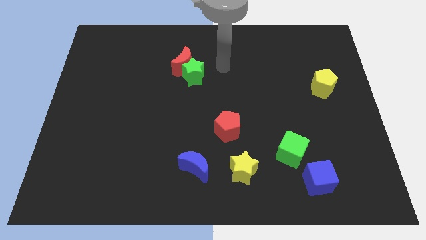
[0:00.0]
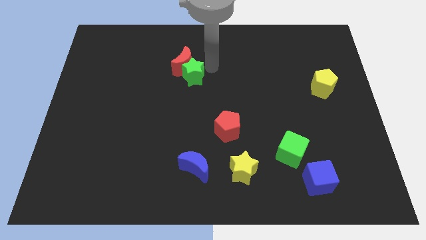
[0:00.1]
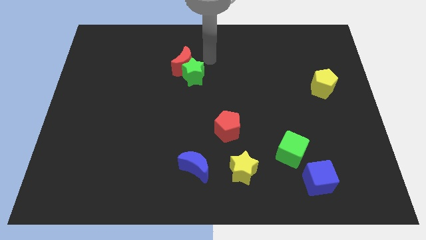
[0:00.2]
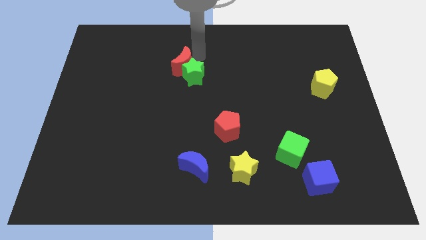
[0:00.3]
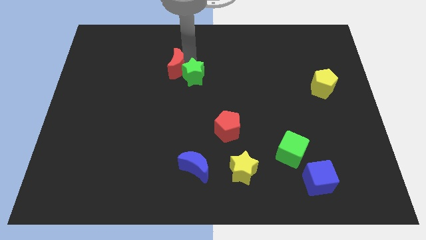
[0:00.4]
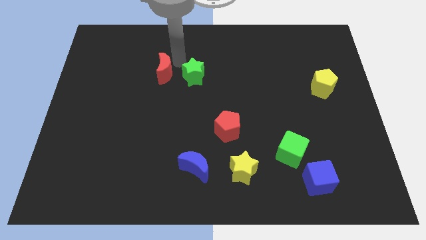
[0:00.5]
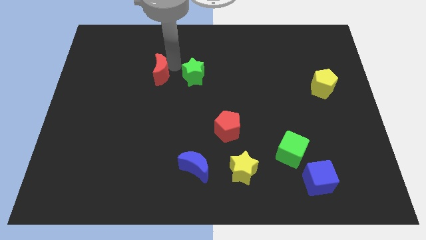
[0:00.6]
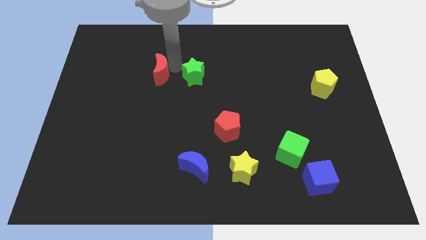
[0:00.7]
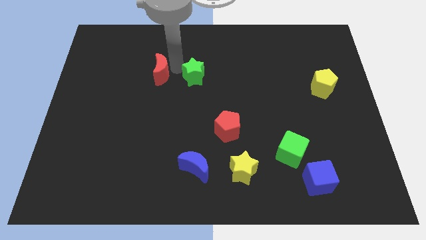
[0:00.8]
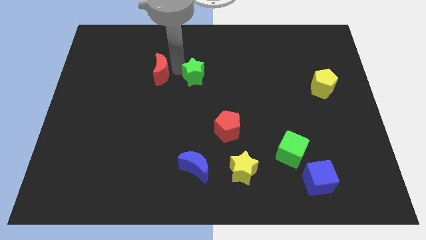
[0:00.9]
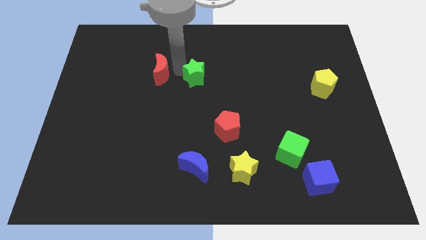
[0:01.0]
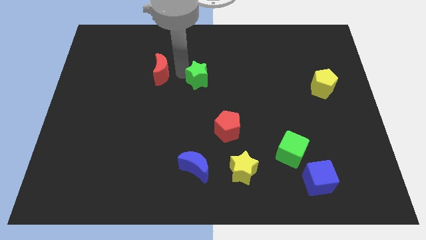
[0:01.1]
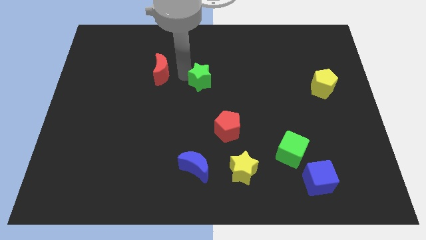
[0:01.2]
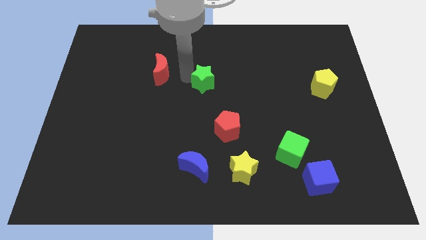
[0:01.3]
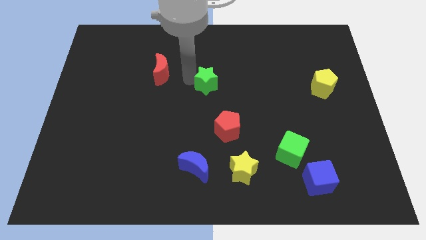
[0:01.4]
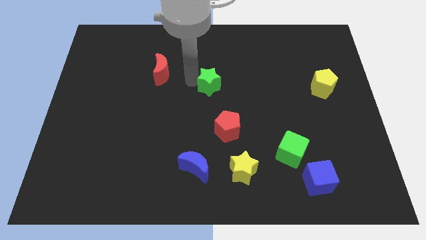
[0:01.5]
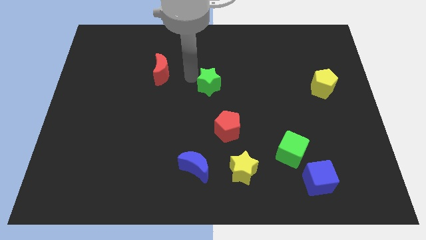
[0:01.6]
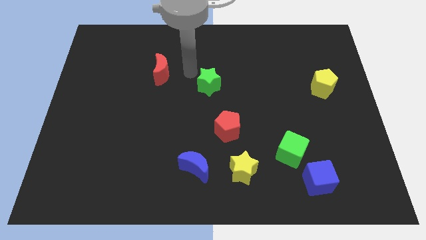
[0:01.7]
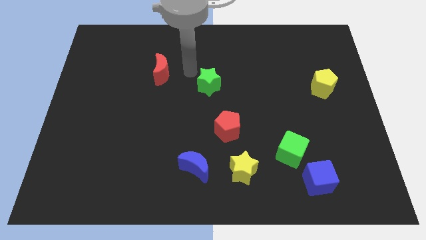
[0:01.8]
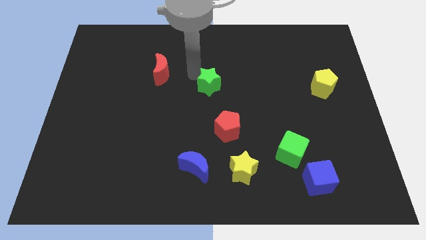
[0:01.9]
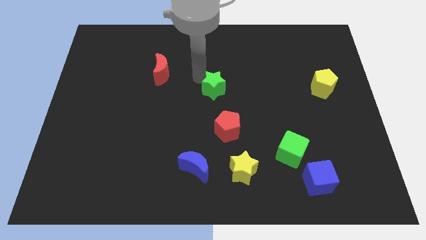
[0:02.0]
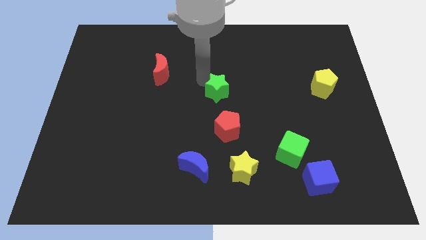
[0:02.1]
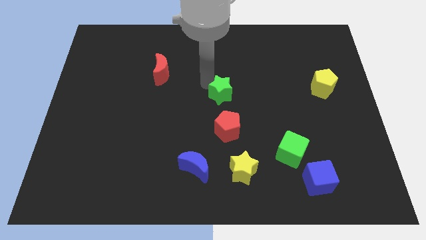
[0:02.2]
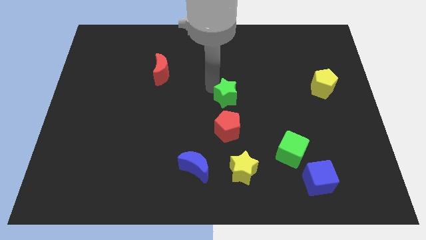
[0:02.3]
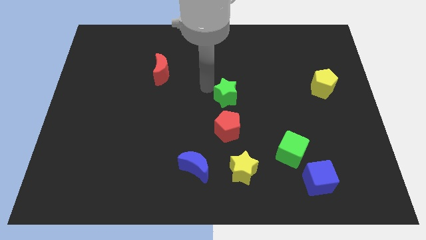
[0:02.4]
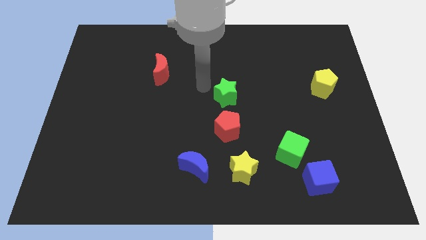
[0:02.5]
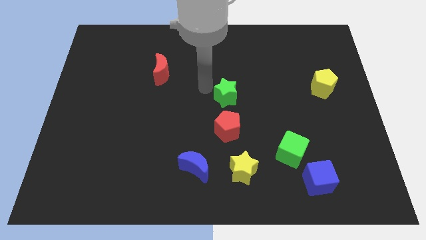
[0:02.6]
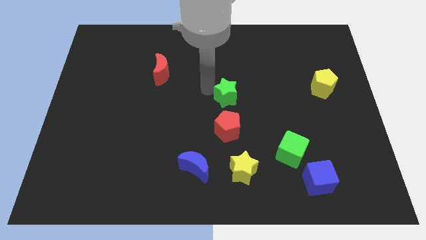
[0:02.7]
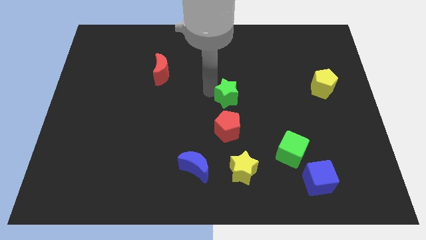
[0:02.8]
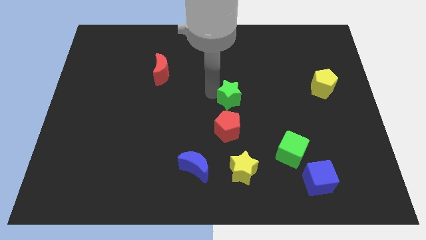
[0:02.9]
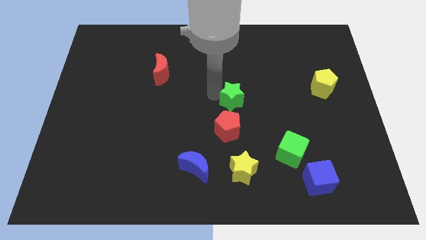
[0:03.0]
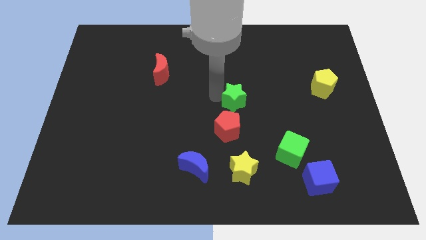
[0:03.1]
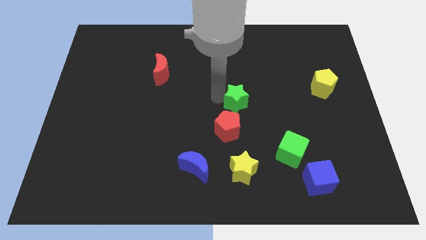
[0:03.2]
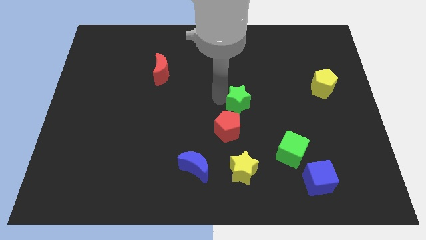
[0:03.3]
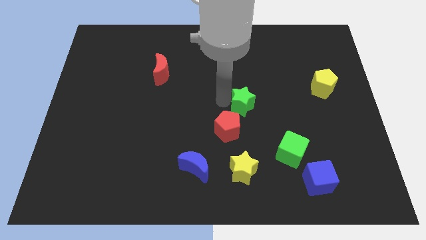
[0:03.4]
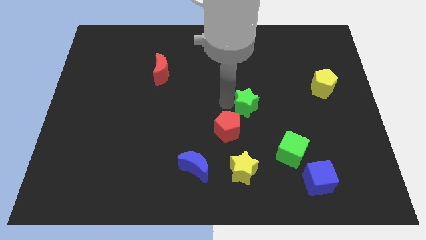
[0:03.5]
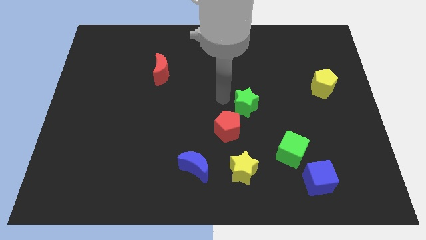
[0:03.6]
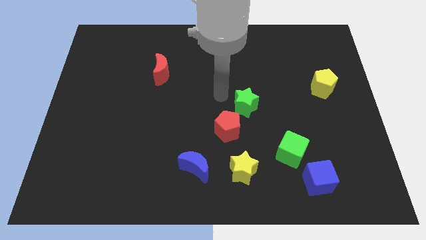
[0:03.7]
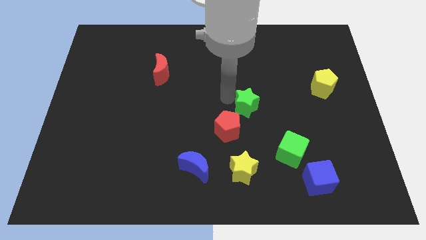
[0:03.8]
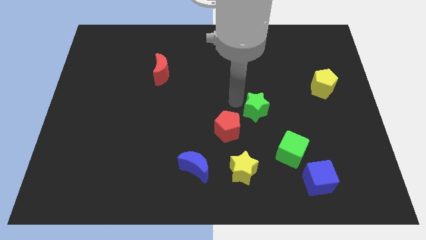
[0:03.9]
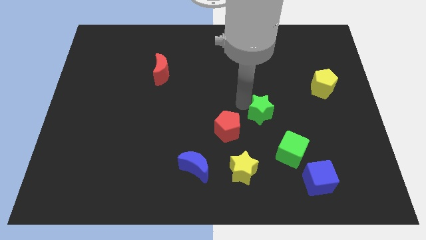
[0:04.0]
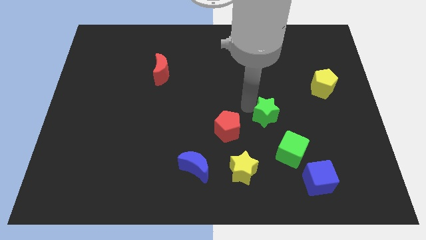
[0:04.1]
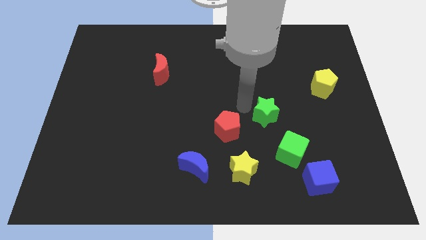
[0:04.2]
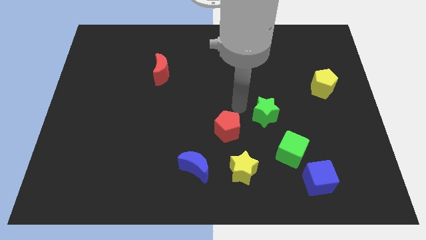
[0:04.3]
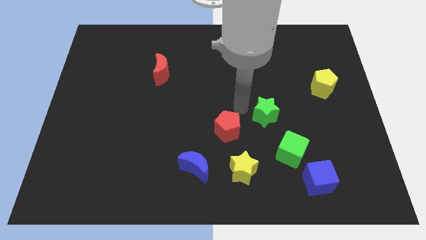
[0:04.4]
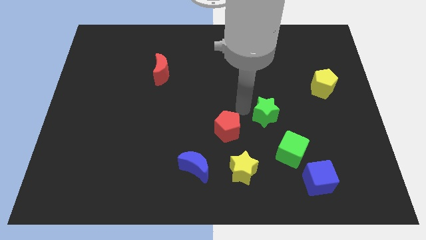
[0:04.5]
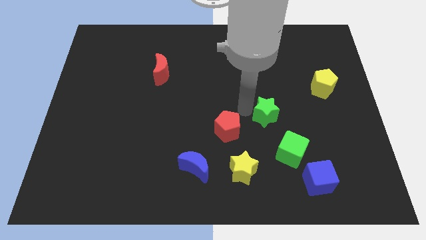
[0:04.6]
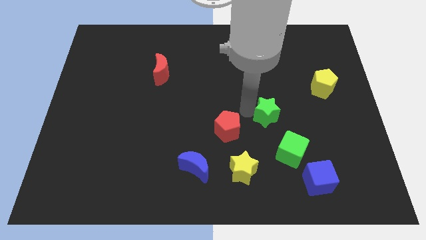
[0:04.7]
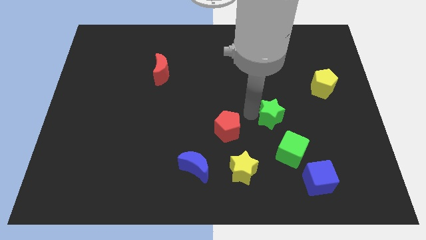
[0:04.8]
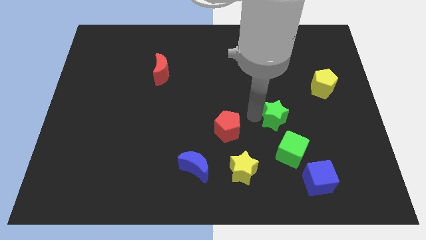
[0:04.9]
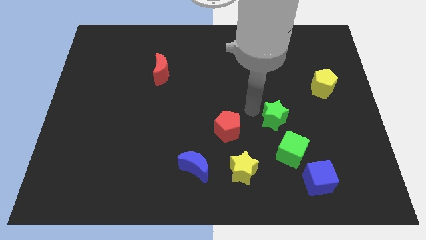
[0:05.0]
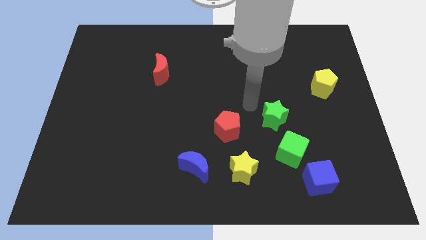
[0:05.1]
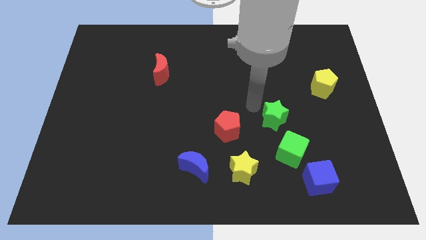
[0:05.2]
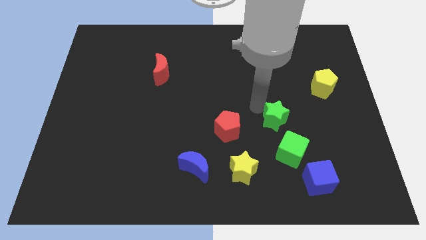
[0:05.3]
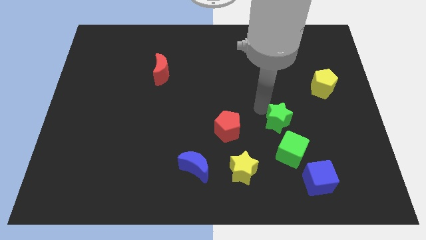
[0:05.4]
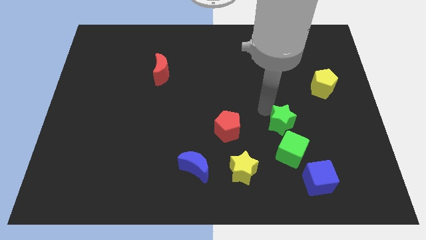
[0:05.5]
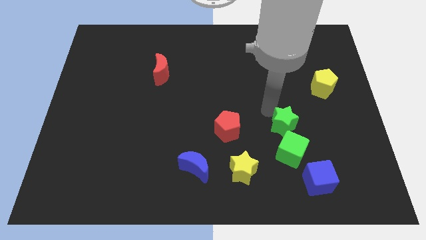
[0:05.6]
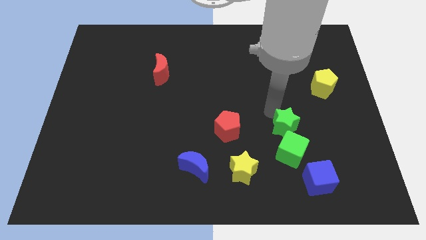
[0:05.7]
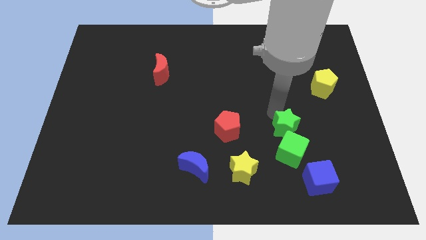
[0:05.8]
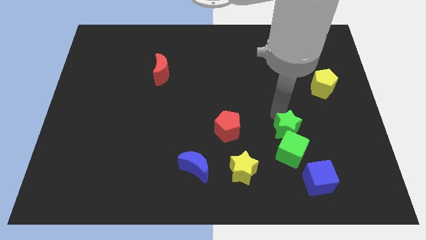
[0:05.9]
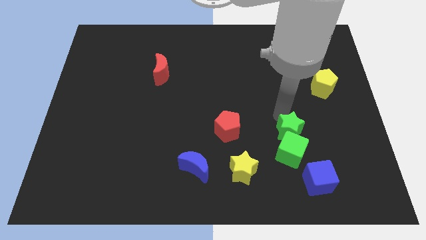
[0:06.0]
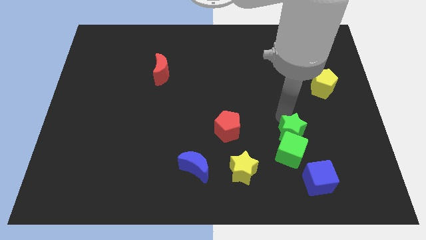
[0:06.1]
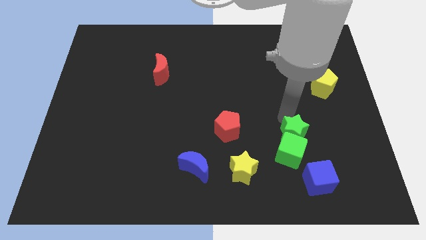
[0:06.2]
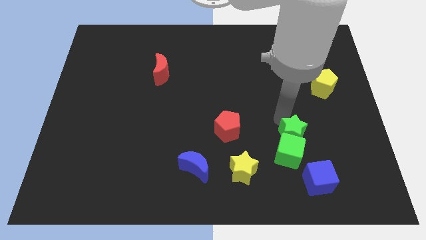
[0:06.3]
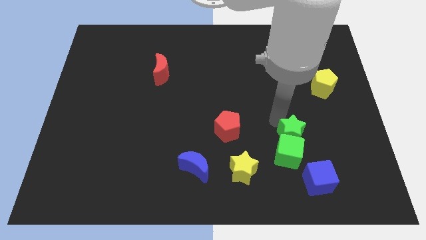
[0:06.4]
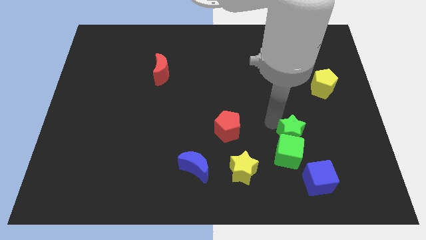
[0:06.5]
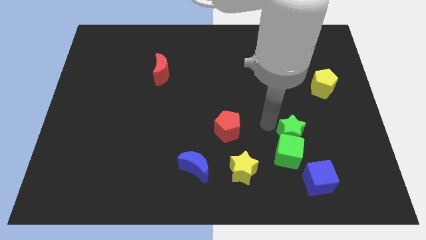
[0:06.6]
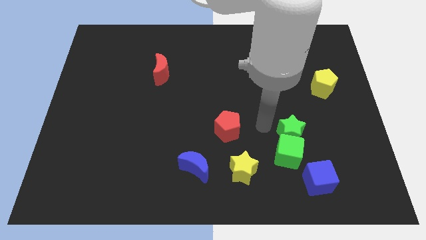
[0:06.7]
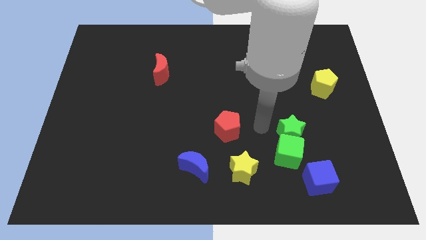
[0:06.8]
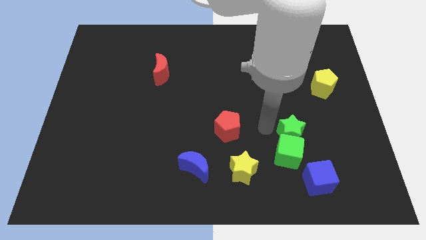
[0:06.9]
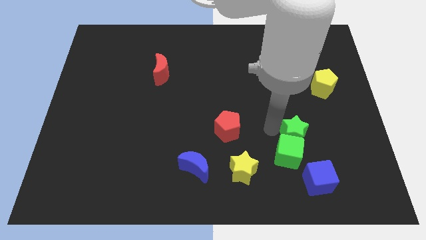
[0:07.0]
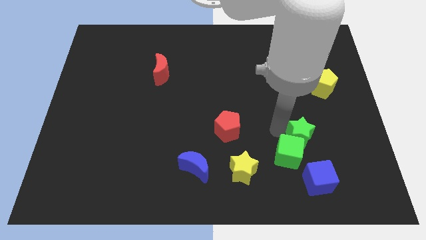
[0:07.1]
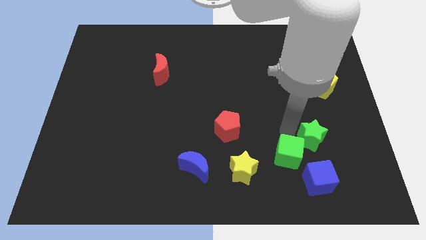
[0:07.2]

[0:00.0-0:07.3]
slide the green star right of the green cube
